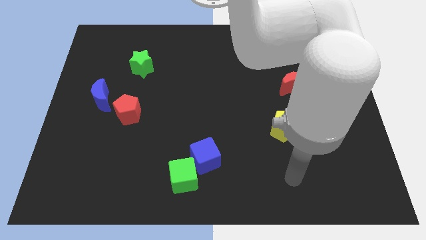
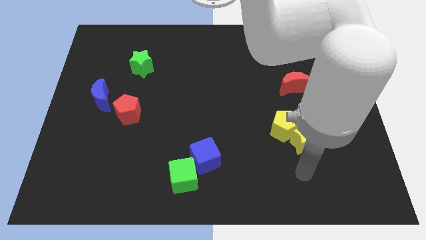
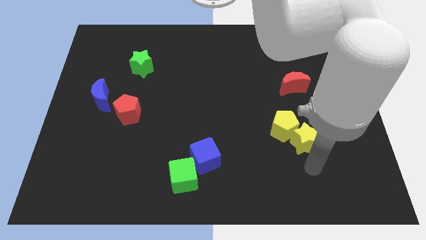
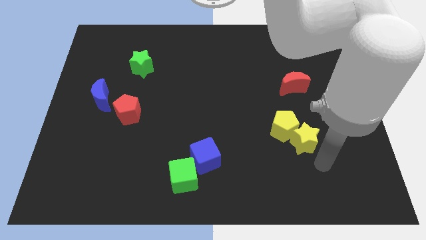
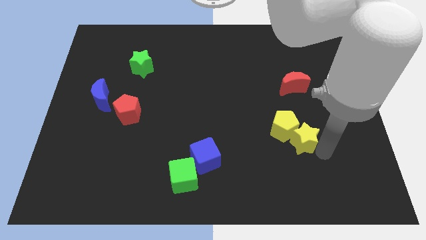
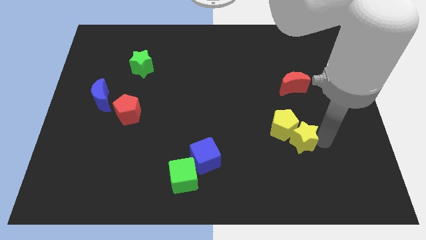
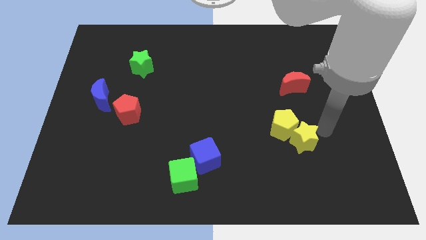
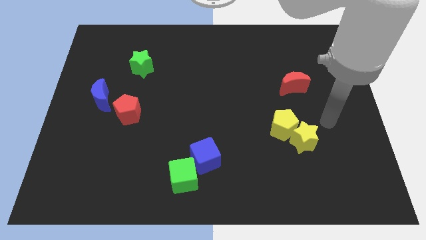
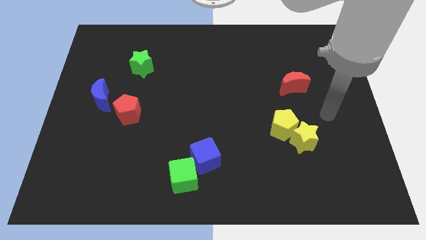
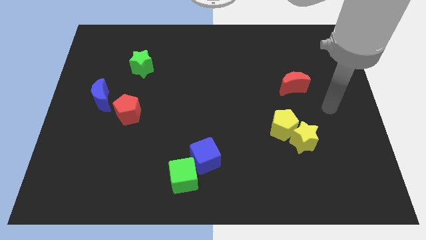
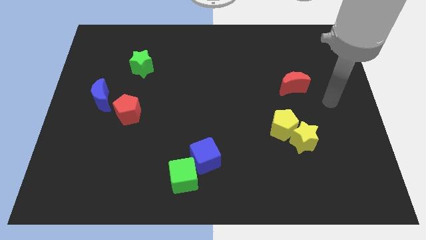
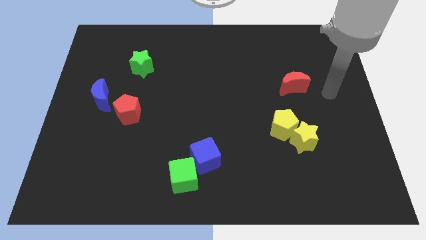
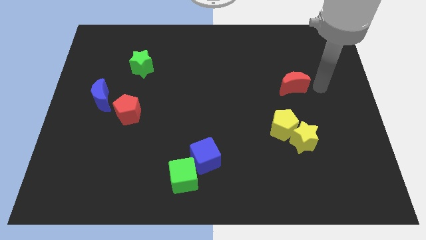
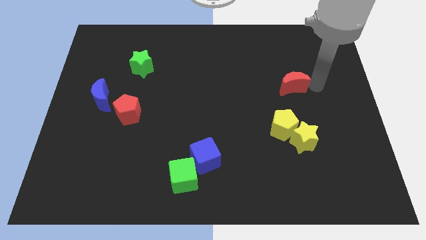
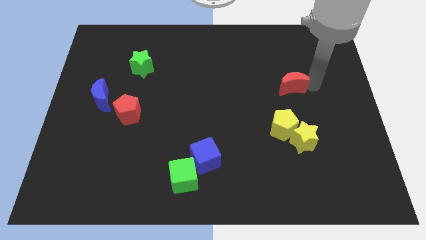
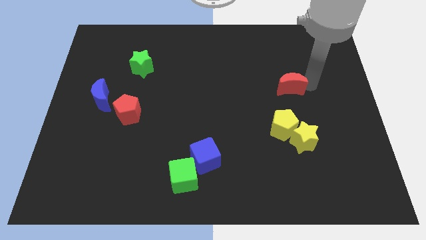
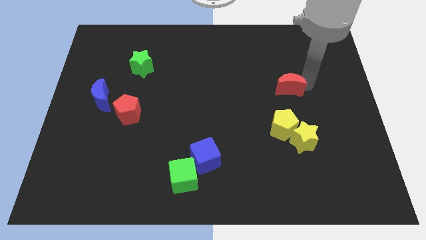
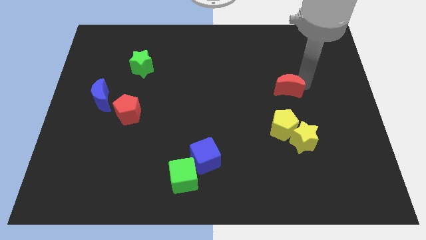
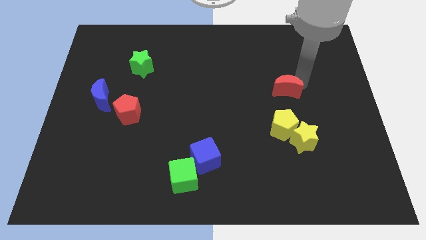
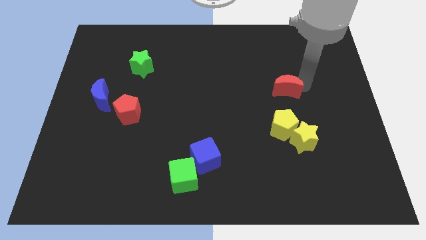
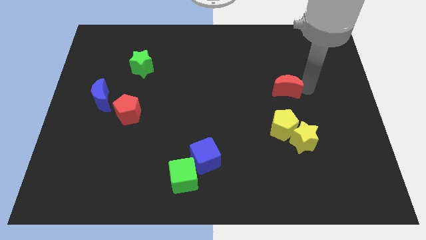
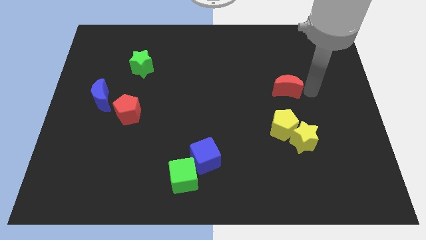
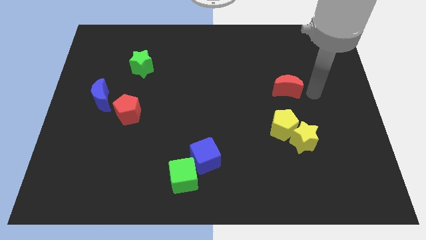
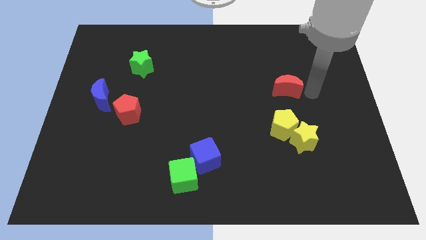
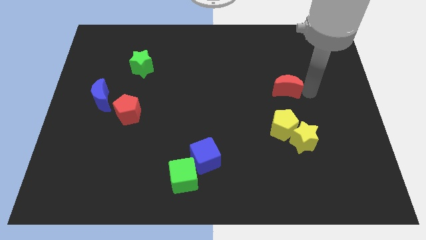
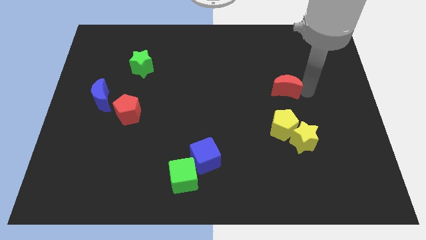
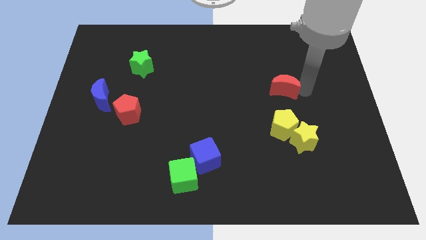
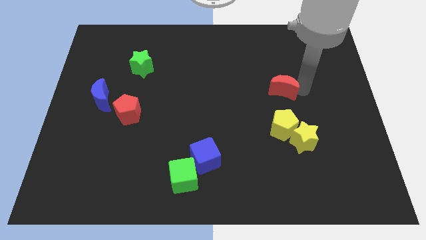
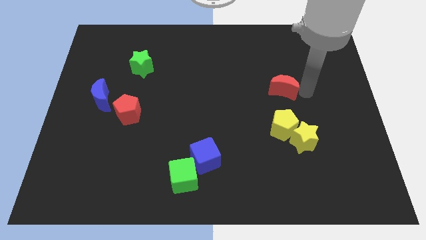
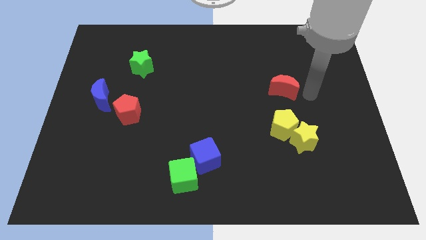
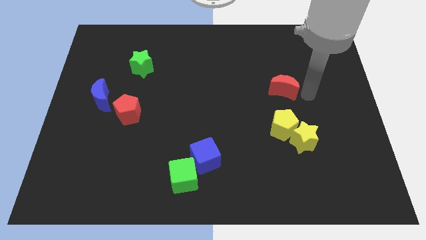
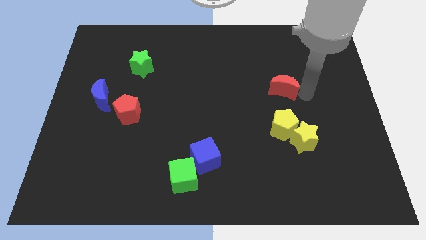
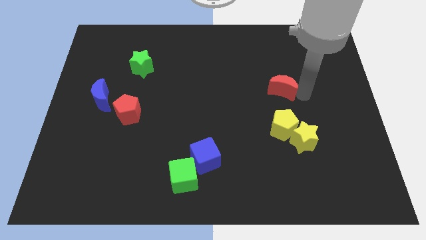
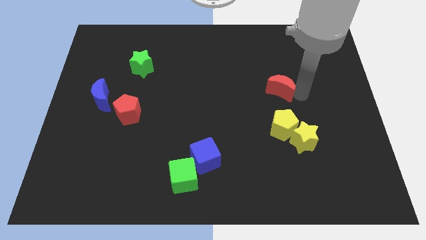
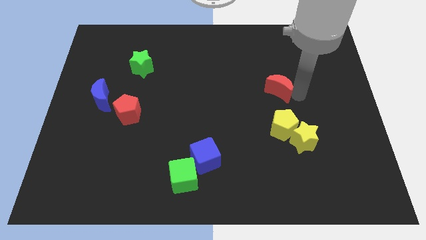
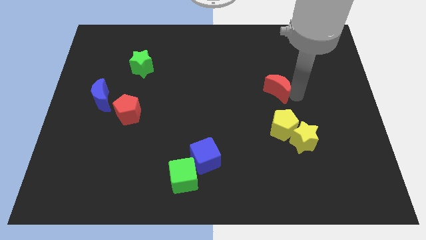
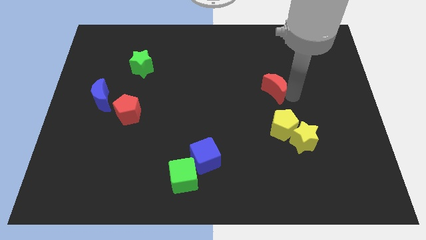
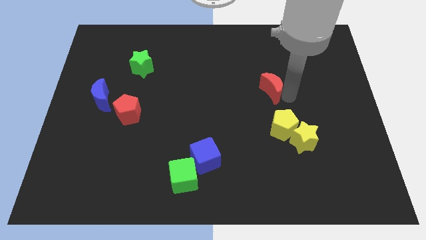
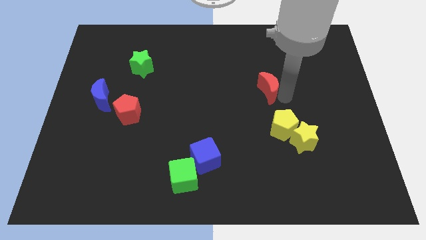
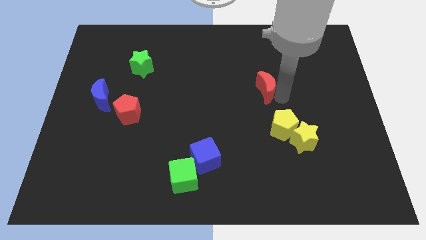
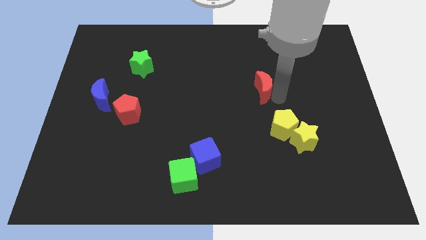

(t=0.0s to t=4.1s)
slightly move the red moon left

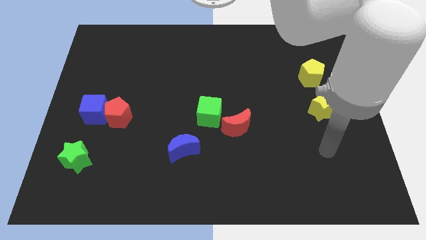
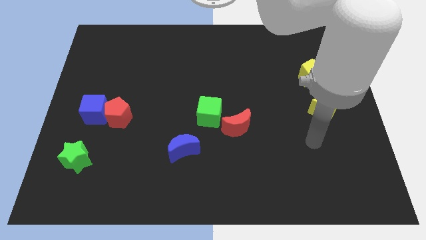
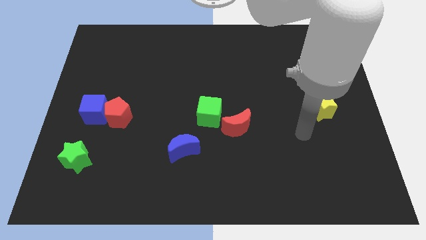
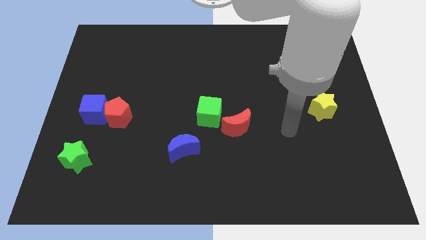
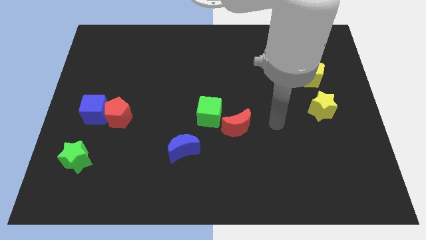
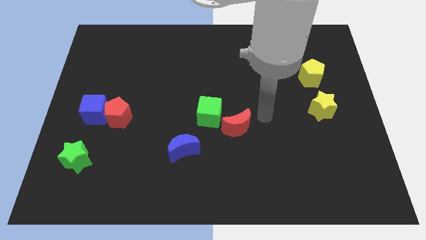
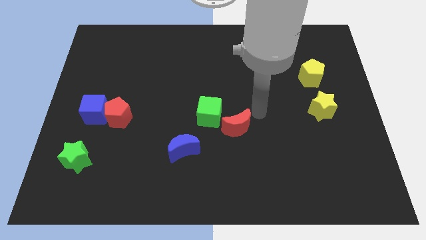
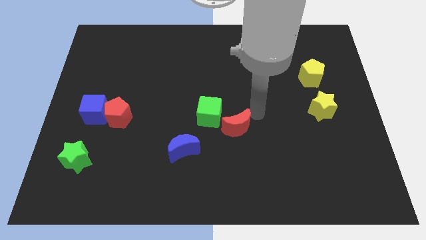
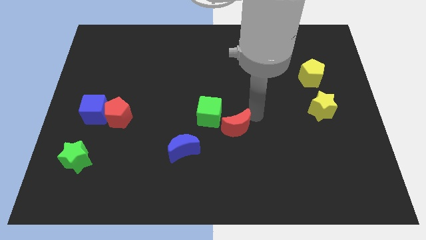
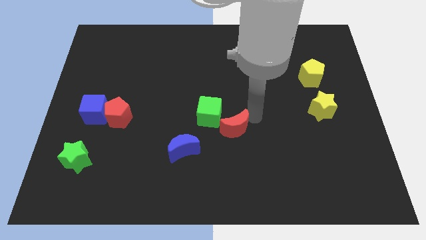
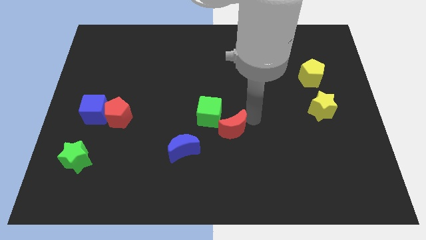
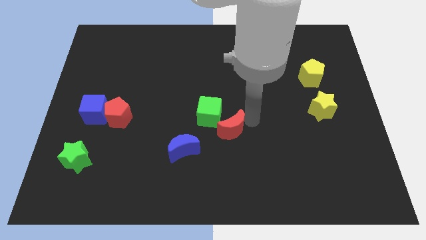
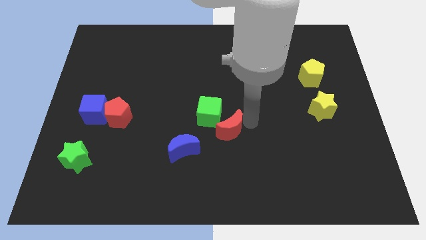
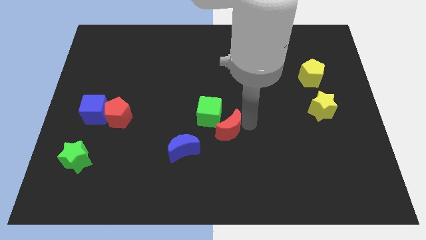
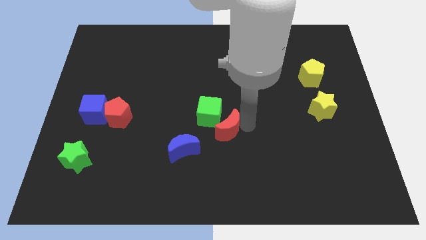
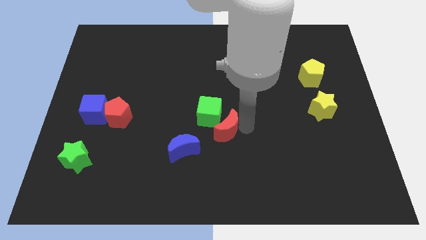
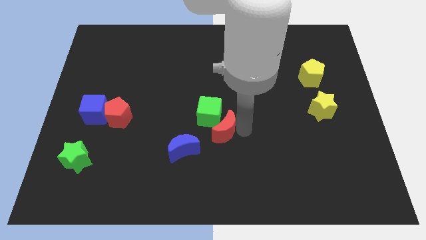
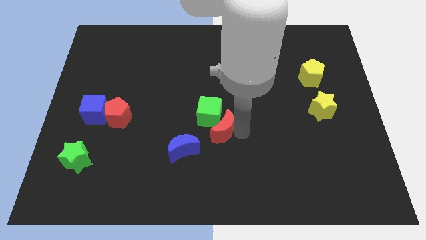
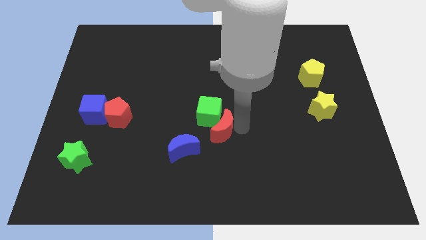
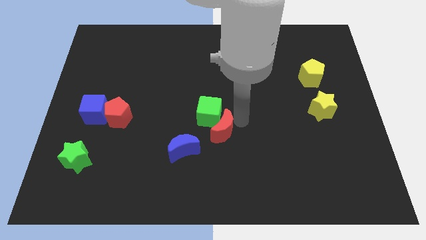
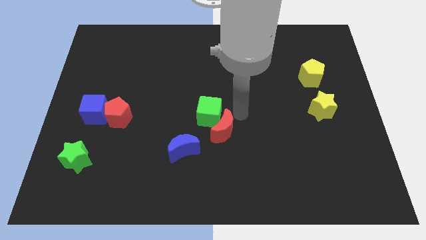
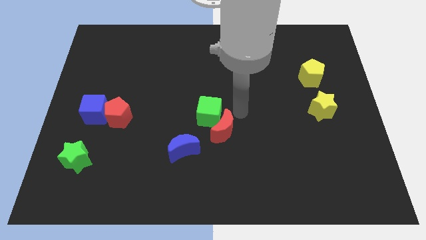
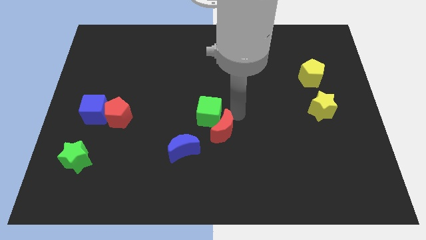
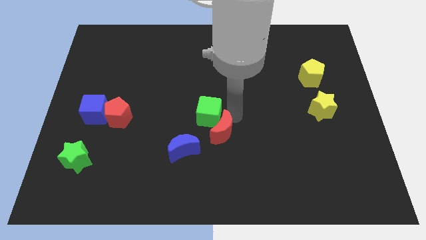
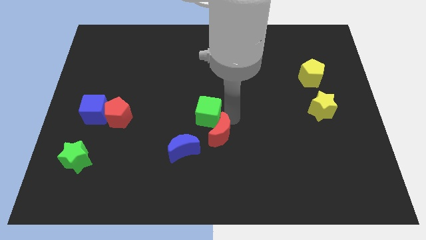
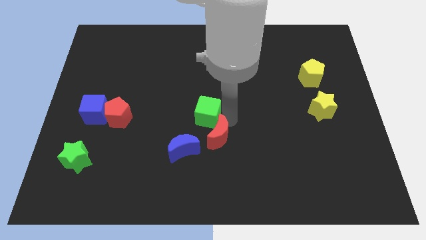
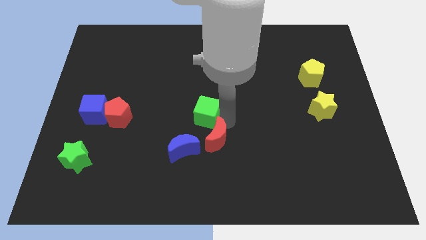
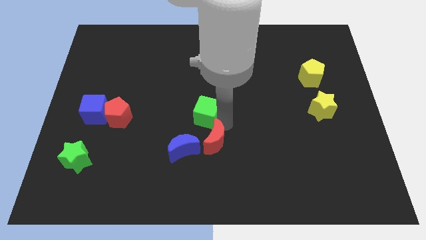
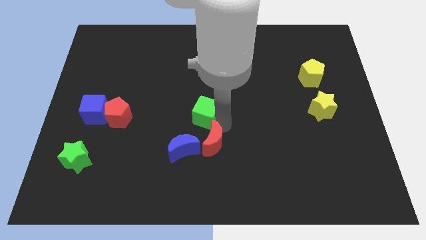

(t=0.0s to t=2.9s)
slightly push the red moon downwards and then to the left

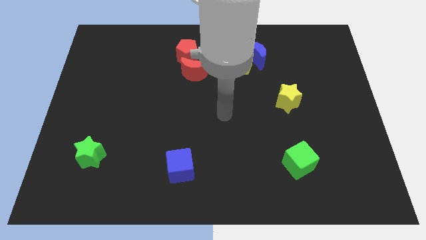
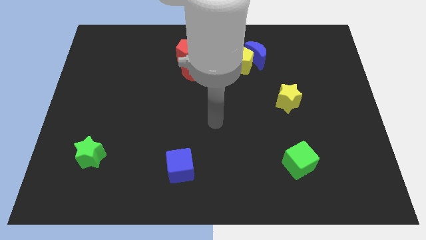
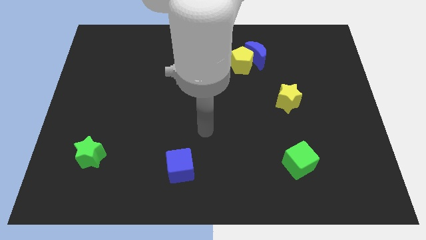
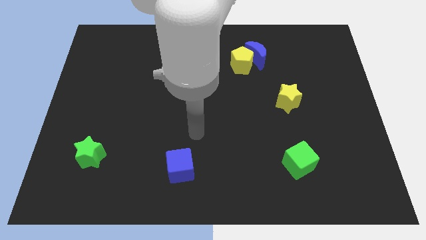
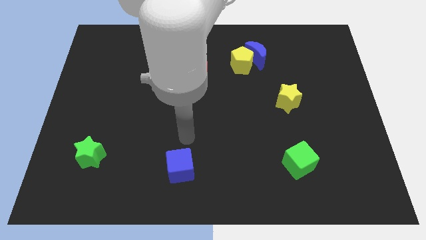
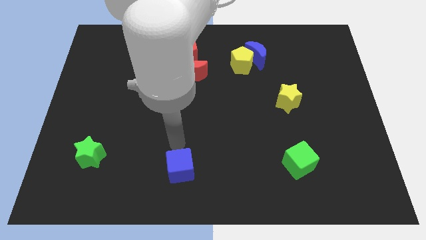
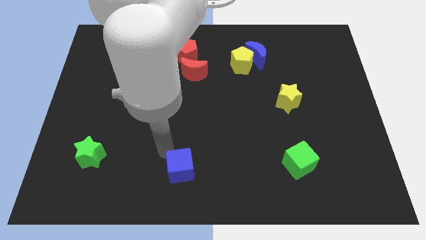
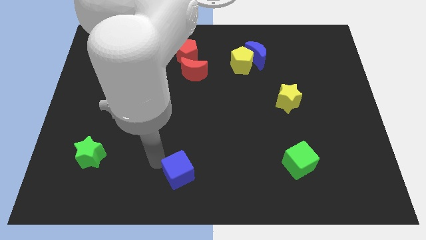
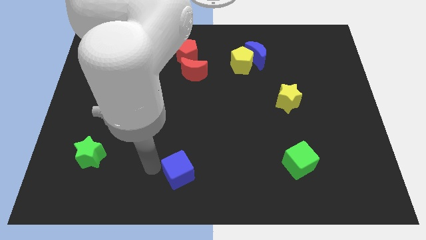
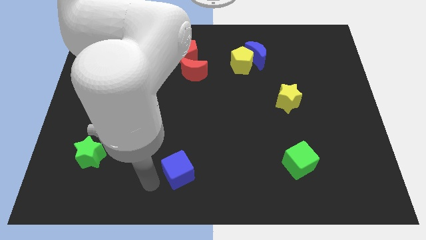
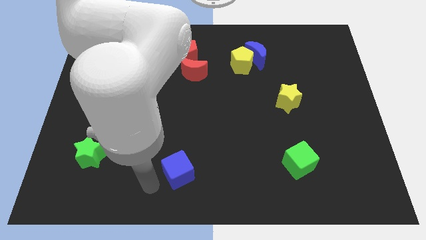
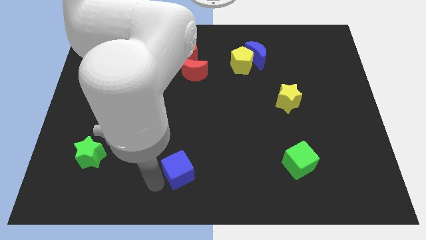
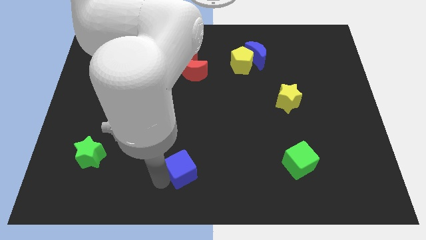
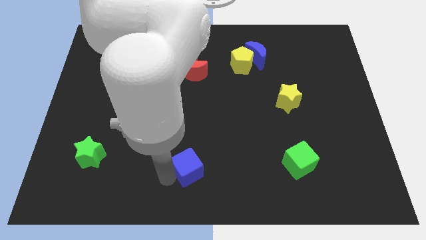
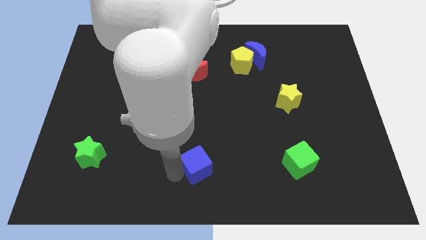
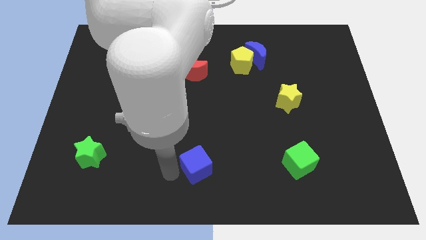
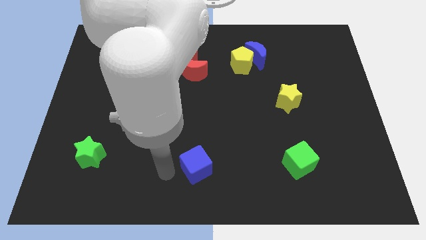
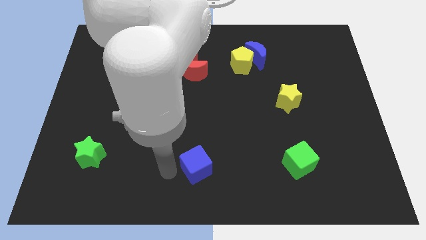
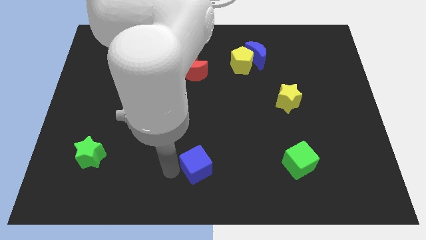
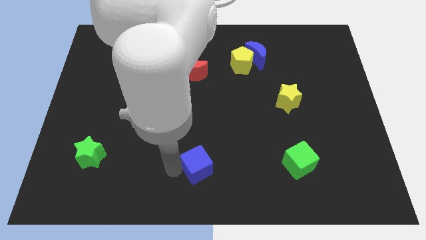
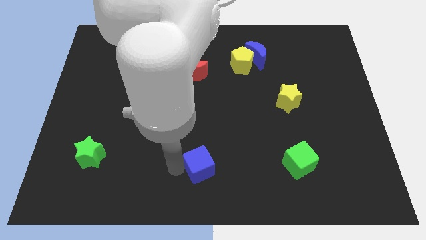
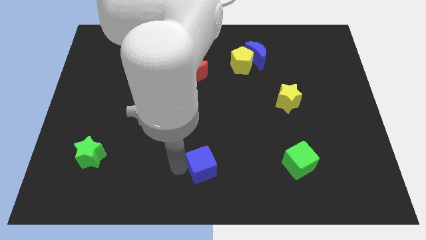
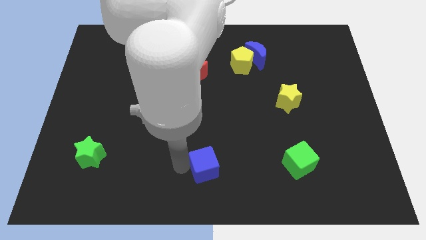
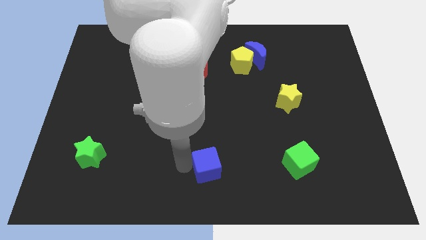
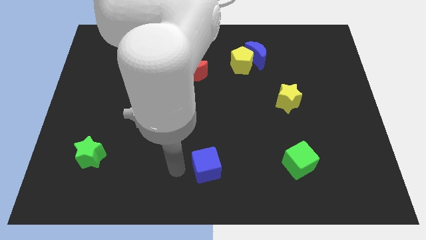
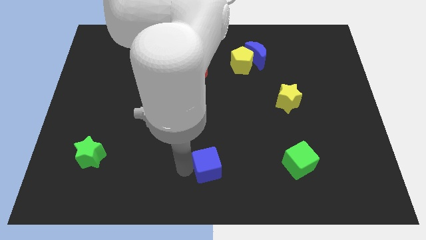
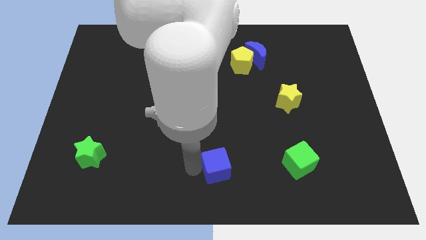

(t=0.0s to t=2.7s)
slightly slide the blue cube right
